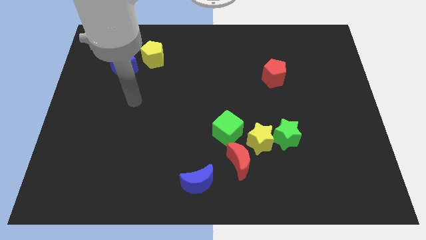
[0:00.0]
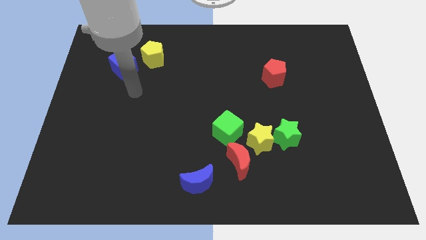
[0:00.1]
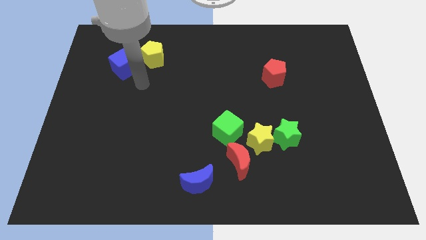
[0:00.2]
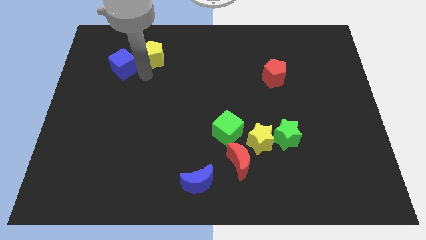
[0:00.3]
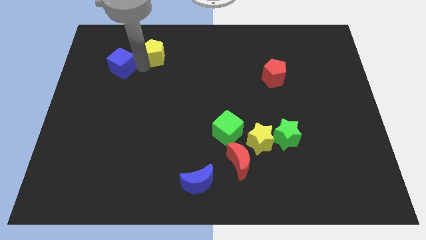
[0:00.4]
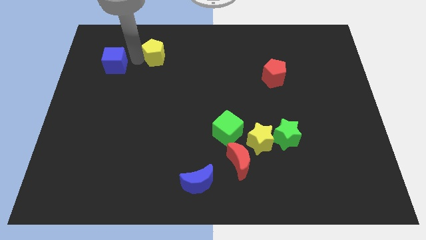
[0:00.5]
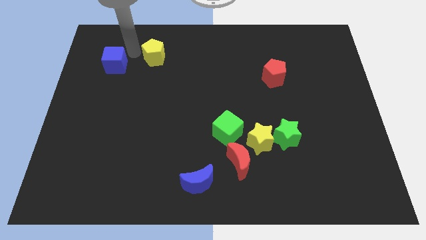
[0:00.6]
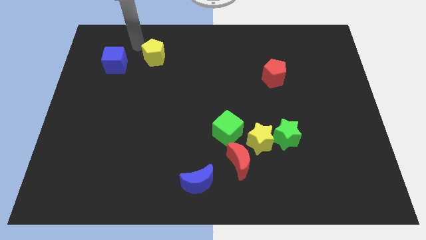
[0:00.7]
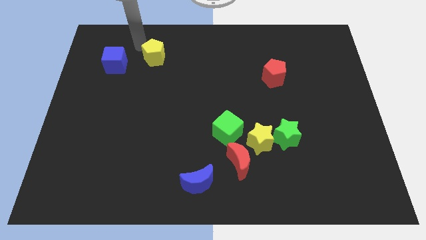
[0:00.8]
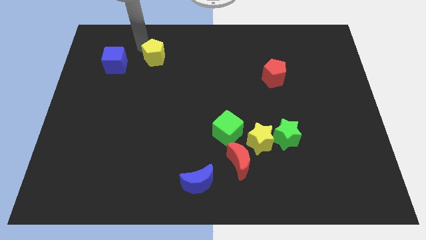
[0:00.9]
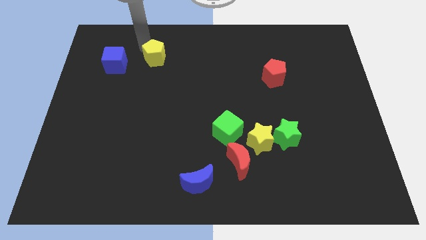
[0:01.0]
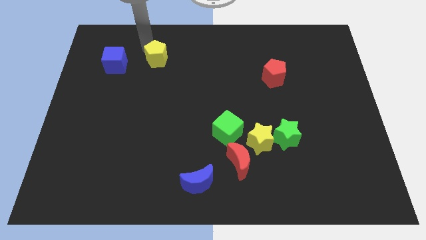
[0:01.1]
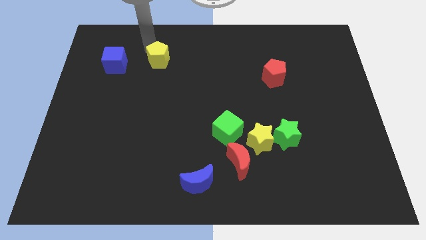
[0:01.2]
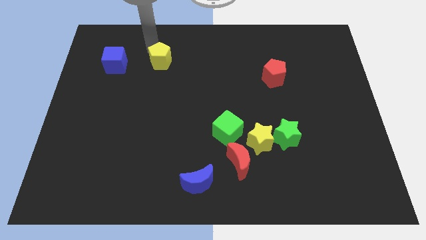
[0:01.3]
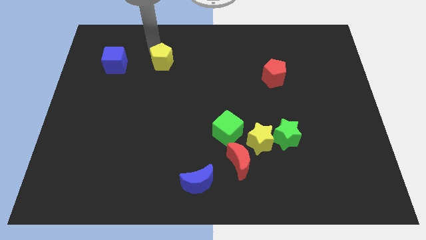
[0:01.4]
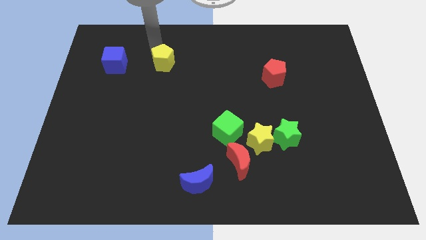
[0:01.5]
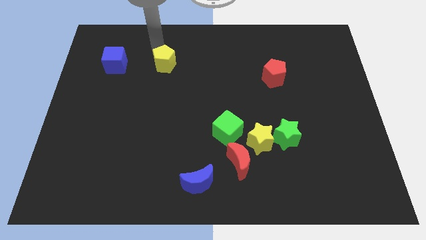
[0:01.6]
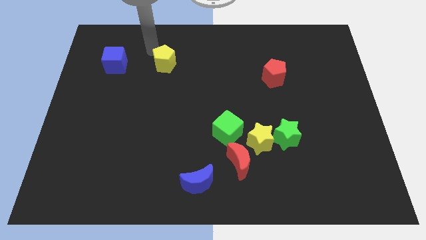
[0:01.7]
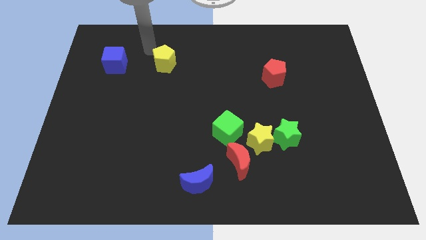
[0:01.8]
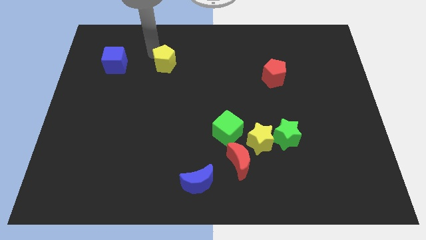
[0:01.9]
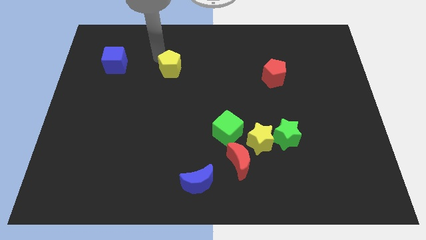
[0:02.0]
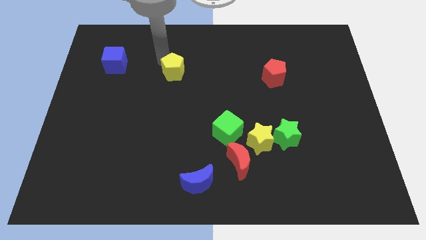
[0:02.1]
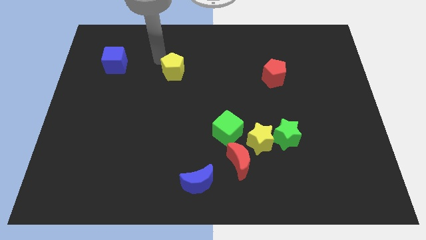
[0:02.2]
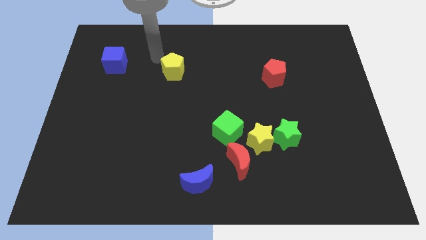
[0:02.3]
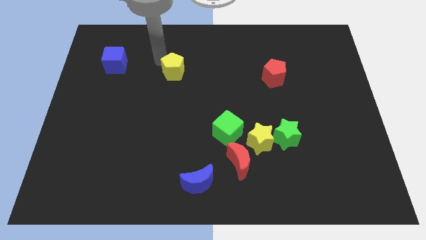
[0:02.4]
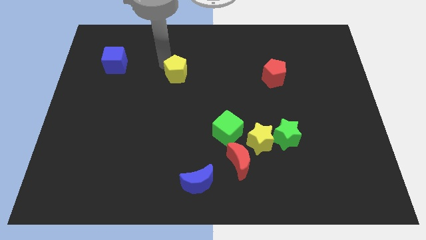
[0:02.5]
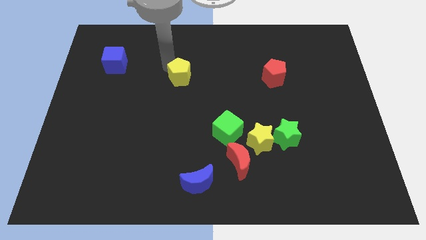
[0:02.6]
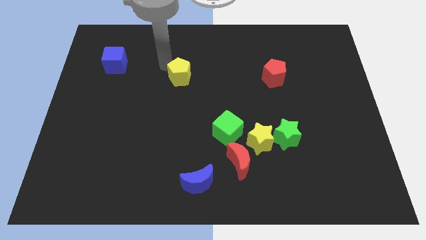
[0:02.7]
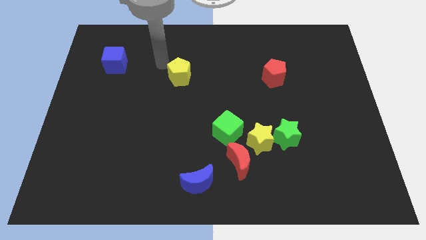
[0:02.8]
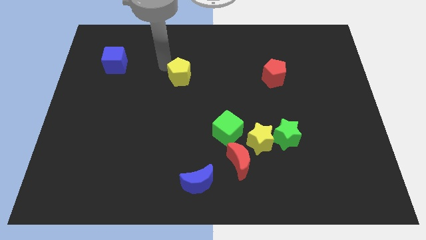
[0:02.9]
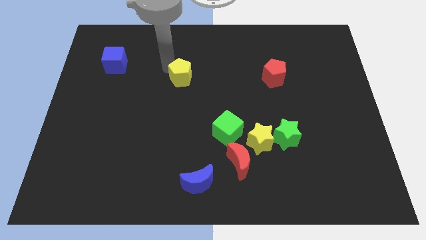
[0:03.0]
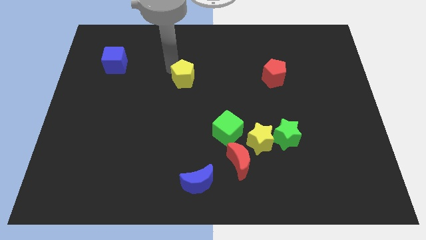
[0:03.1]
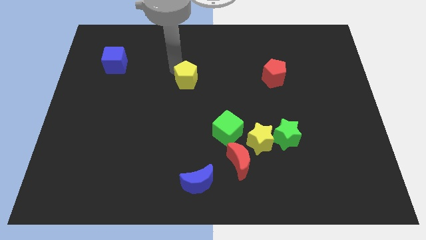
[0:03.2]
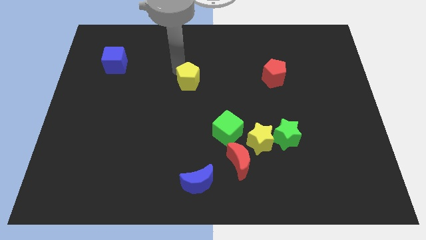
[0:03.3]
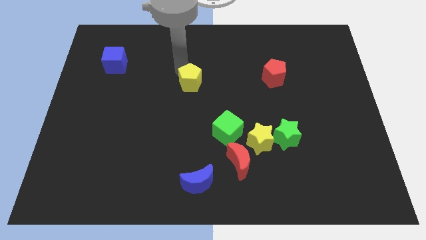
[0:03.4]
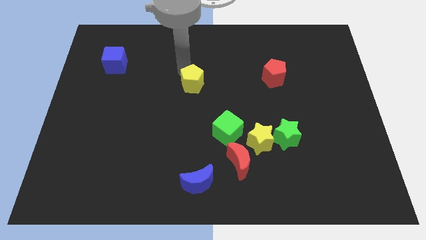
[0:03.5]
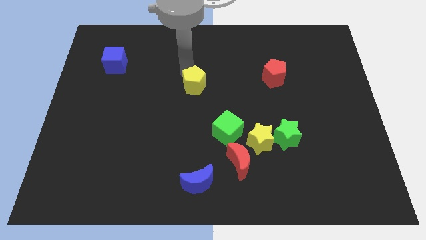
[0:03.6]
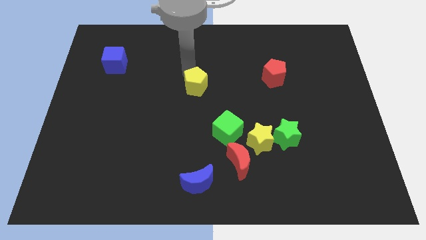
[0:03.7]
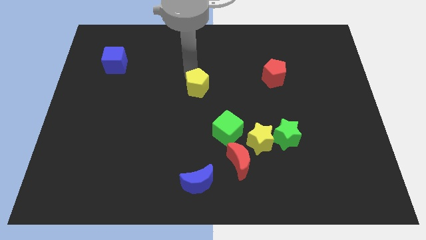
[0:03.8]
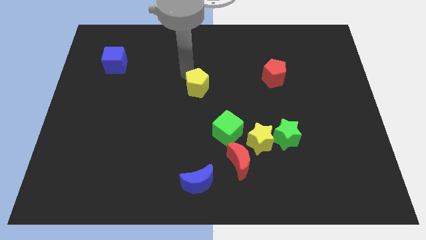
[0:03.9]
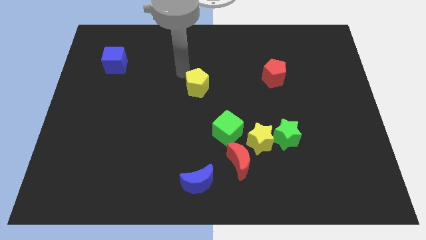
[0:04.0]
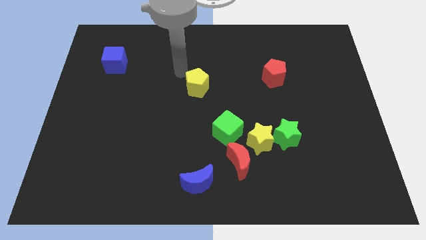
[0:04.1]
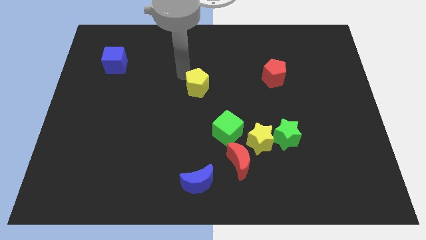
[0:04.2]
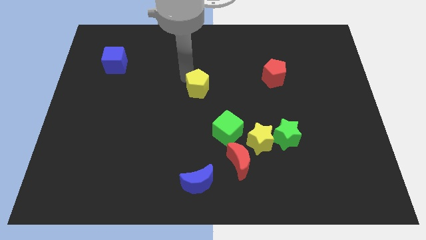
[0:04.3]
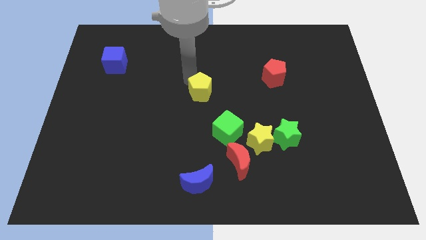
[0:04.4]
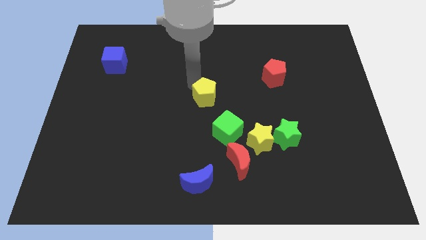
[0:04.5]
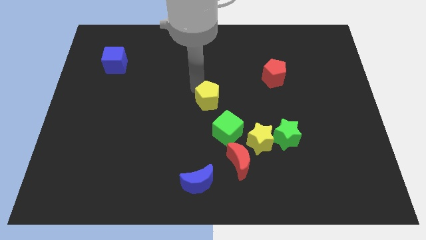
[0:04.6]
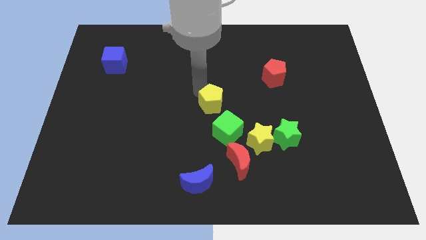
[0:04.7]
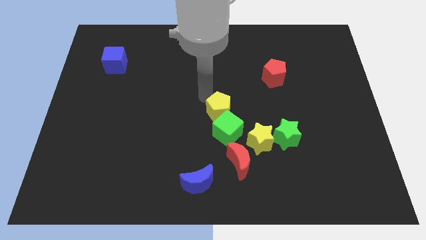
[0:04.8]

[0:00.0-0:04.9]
put the yellow pentagon to the top side of the red moon

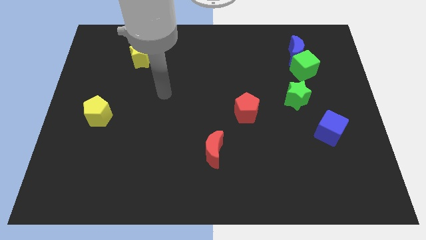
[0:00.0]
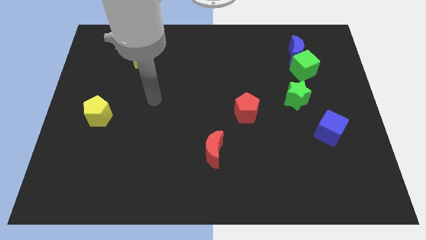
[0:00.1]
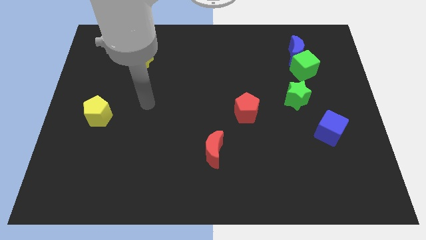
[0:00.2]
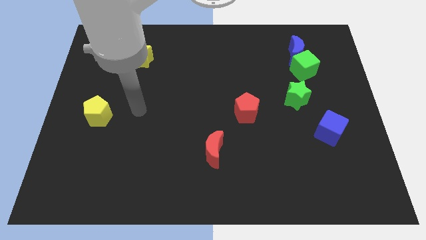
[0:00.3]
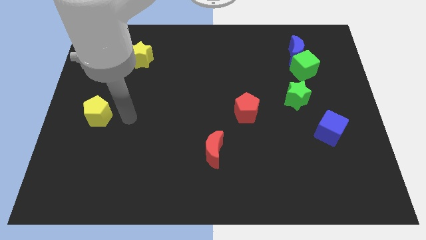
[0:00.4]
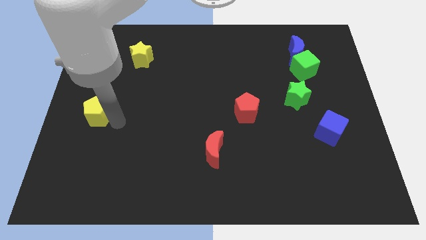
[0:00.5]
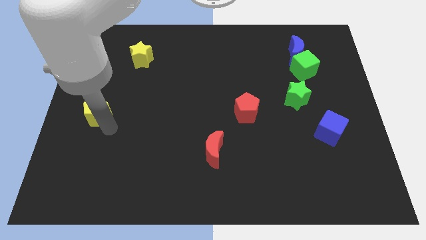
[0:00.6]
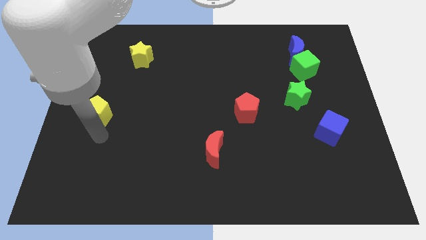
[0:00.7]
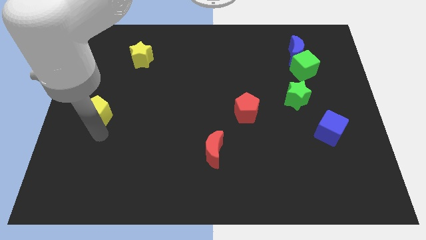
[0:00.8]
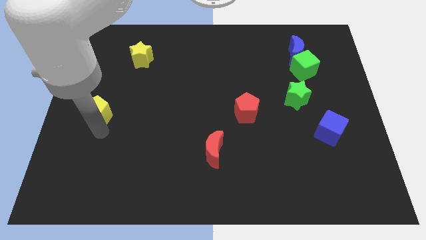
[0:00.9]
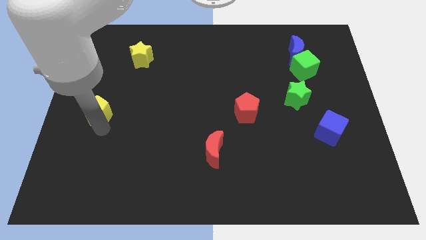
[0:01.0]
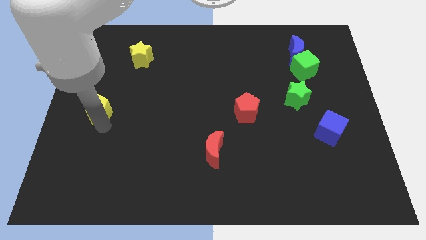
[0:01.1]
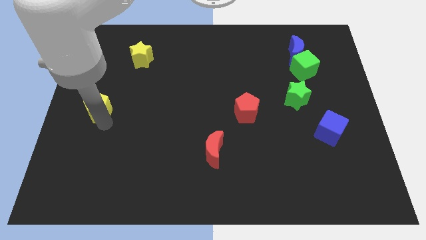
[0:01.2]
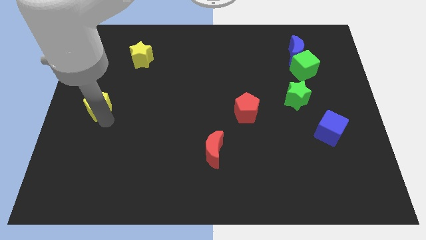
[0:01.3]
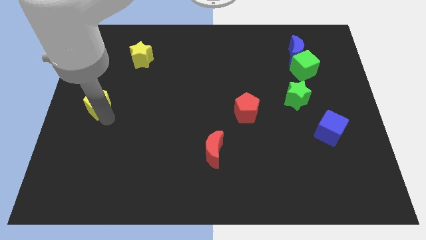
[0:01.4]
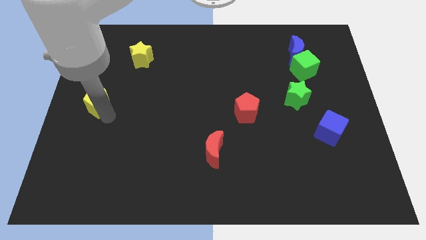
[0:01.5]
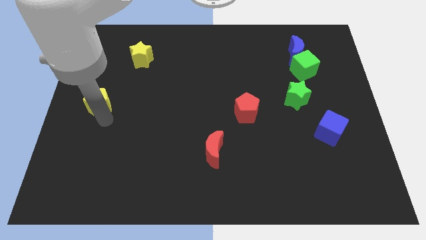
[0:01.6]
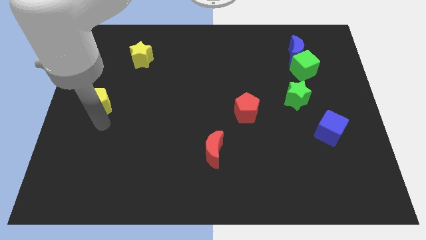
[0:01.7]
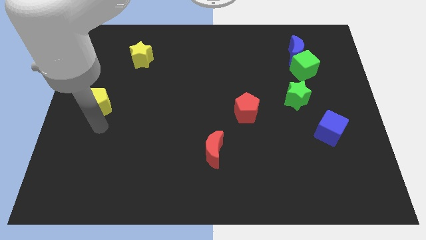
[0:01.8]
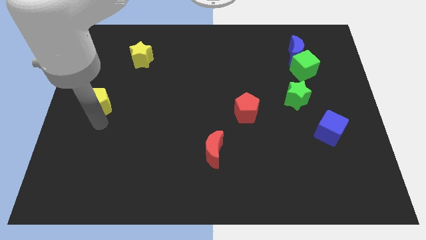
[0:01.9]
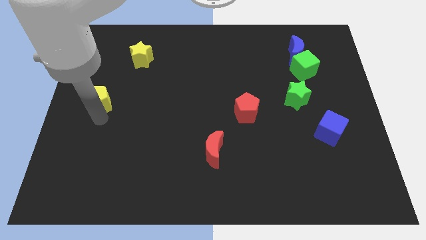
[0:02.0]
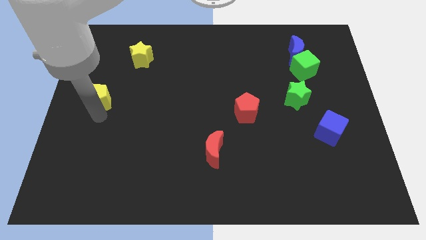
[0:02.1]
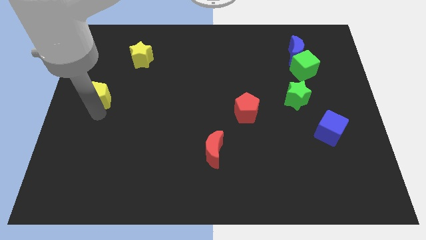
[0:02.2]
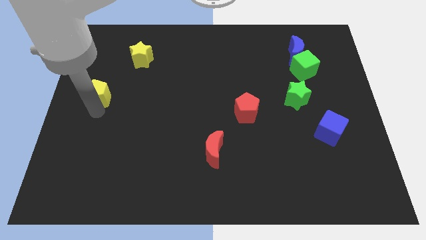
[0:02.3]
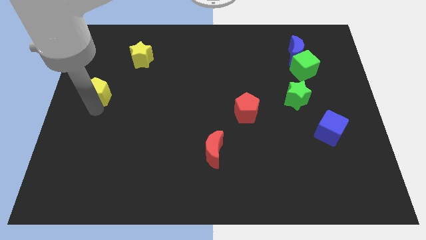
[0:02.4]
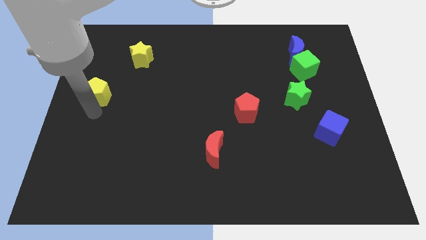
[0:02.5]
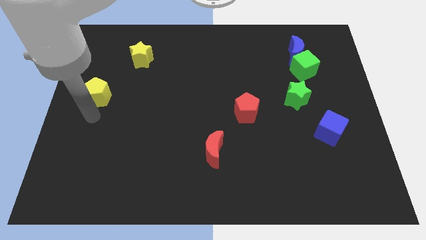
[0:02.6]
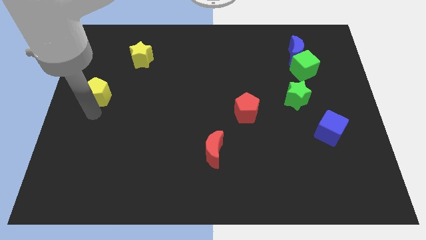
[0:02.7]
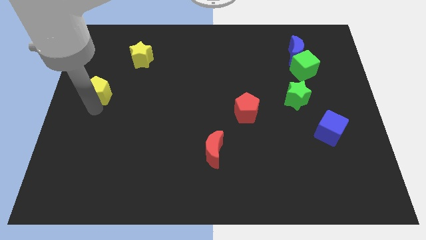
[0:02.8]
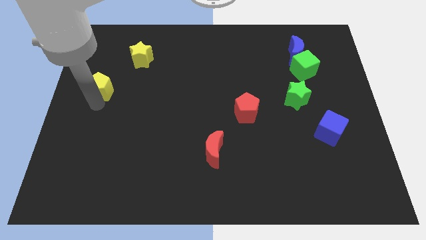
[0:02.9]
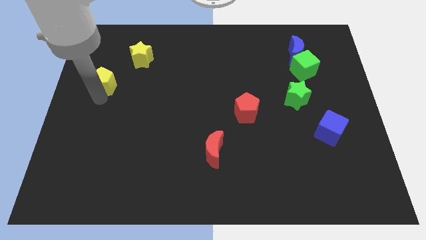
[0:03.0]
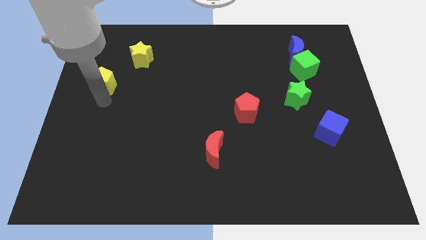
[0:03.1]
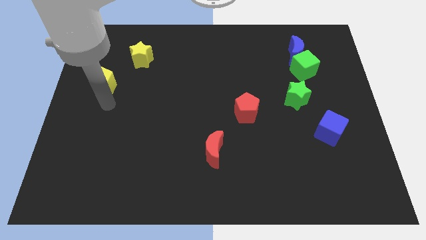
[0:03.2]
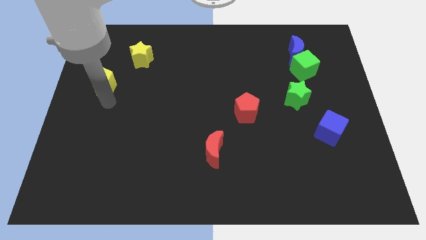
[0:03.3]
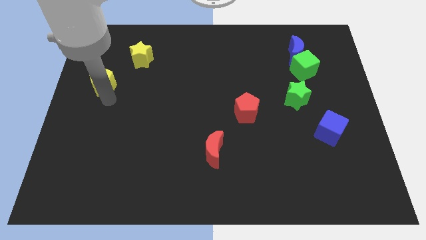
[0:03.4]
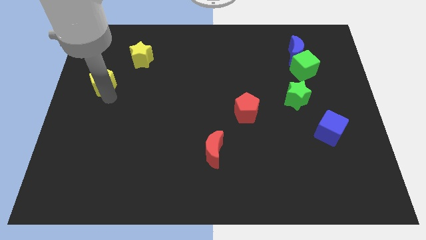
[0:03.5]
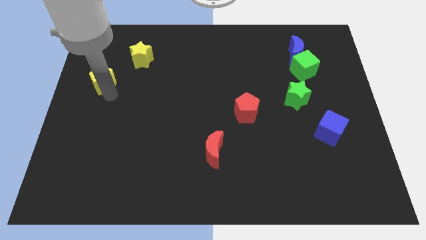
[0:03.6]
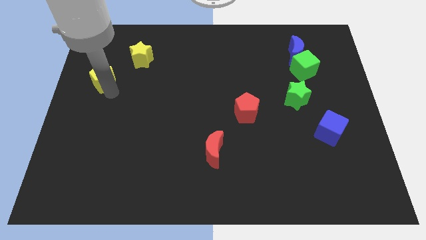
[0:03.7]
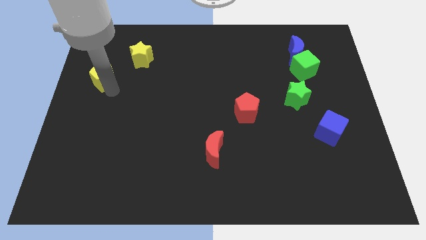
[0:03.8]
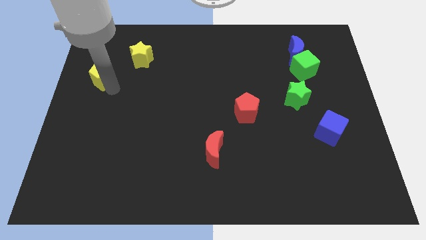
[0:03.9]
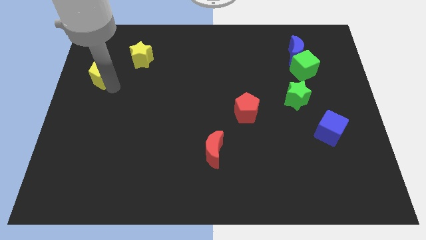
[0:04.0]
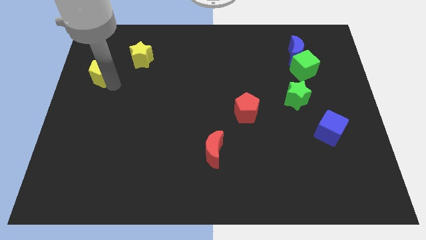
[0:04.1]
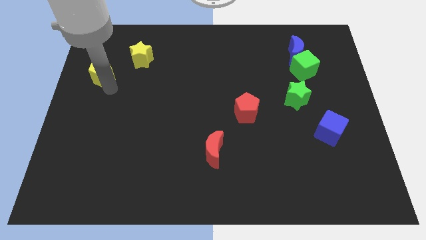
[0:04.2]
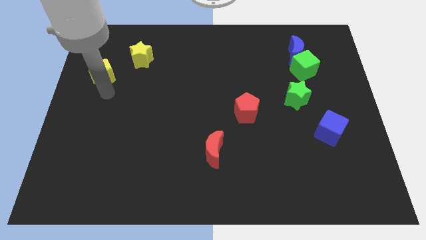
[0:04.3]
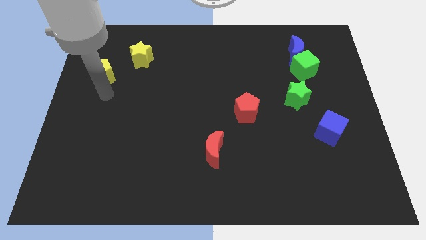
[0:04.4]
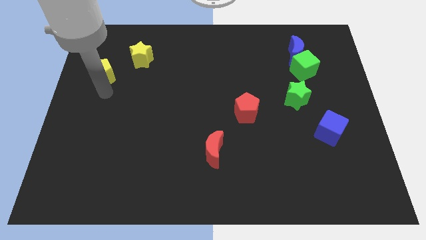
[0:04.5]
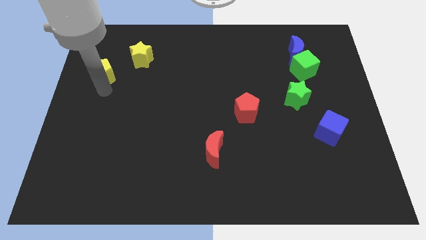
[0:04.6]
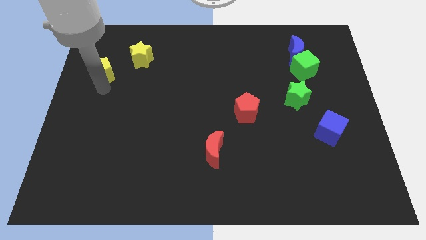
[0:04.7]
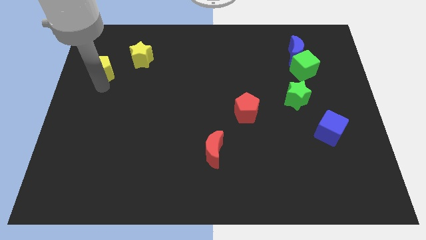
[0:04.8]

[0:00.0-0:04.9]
put the yellow pentagon left of the yellow star
